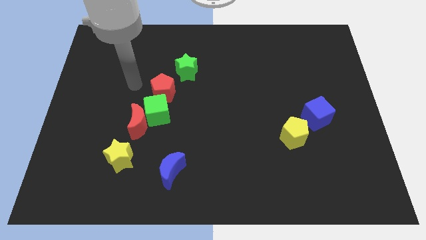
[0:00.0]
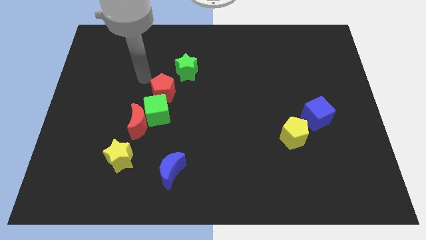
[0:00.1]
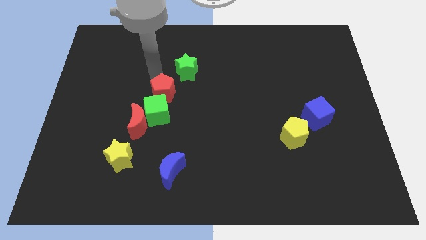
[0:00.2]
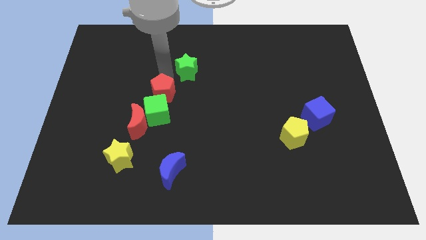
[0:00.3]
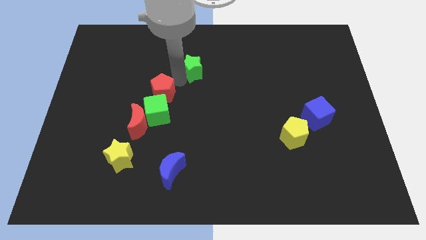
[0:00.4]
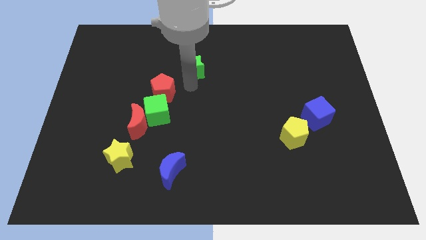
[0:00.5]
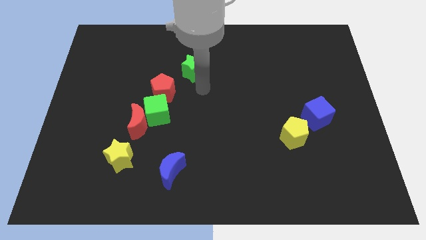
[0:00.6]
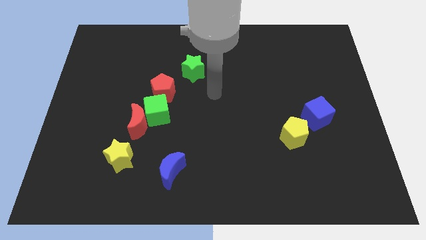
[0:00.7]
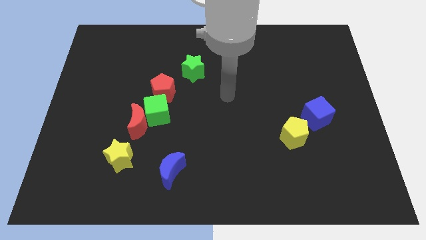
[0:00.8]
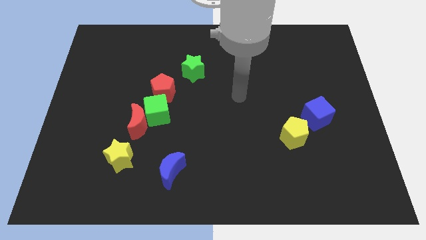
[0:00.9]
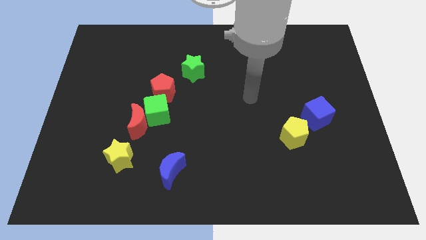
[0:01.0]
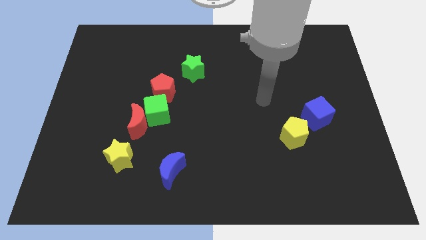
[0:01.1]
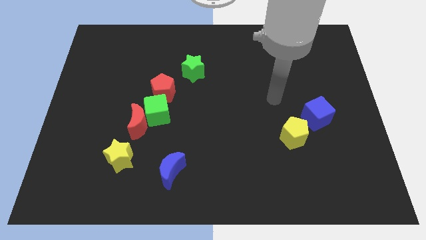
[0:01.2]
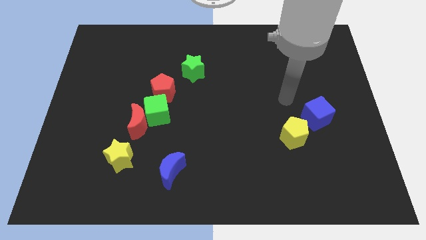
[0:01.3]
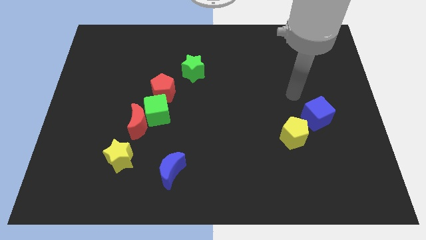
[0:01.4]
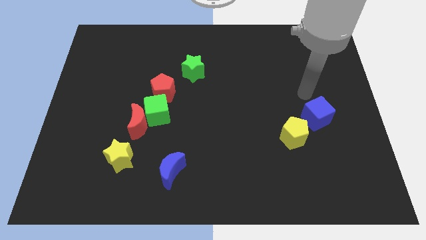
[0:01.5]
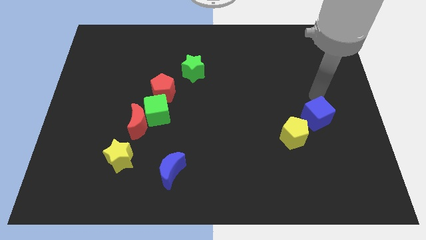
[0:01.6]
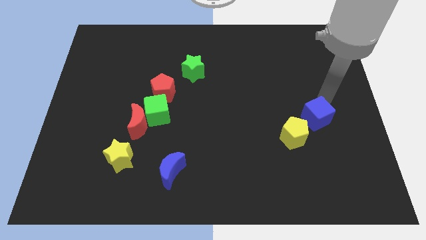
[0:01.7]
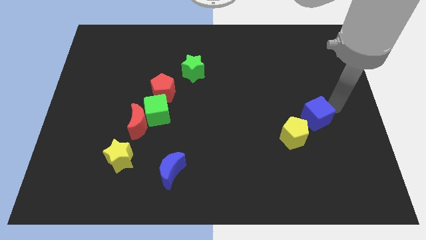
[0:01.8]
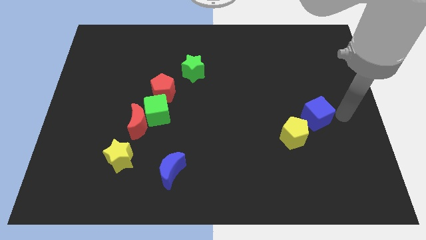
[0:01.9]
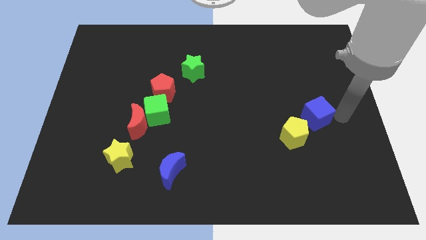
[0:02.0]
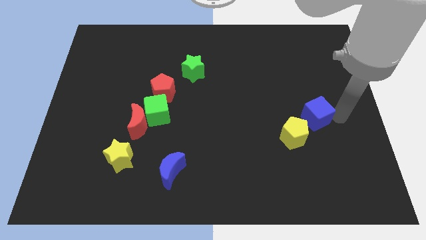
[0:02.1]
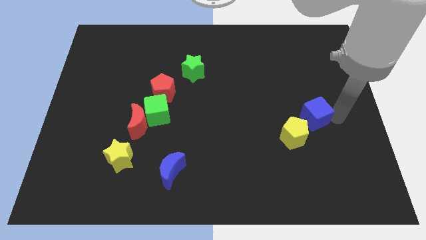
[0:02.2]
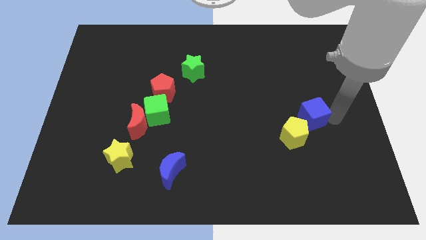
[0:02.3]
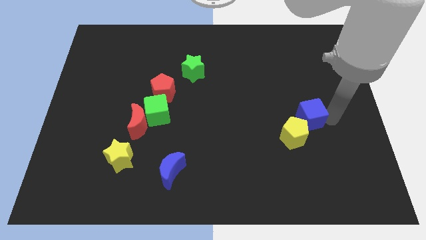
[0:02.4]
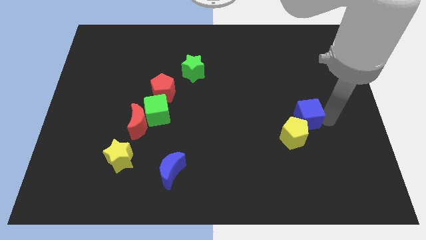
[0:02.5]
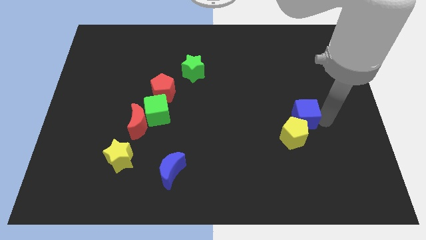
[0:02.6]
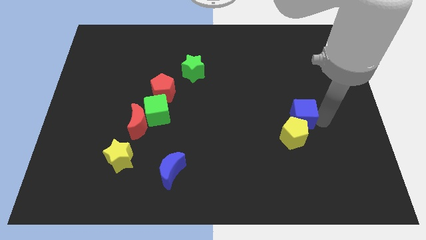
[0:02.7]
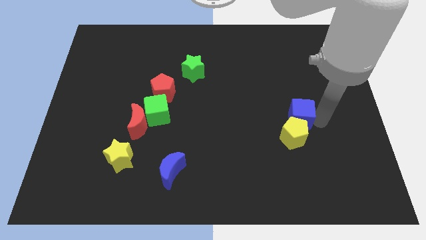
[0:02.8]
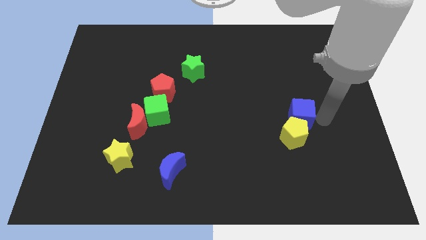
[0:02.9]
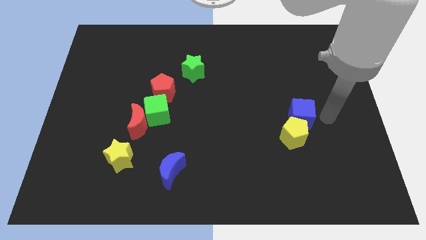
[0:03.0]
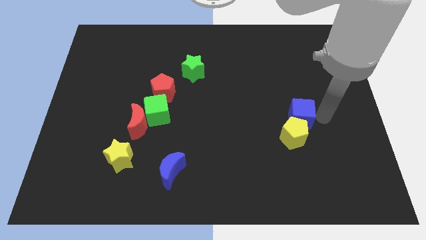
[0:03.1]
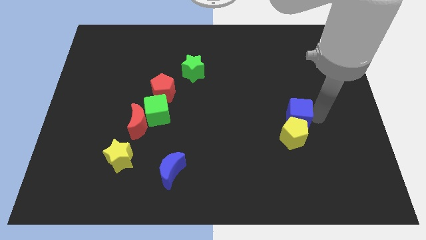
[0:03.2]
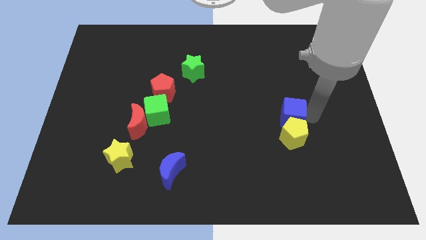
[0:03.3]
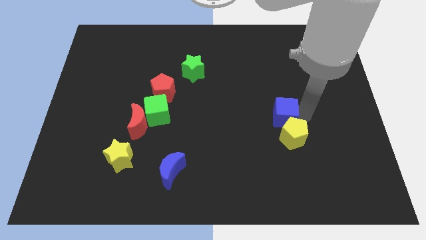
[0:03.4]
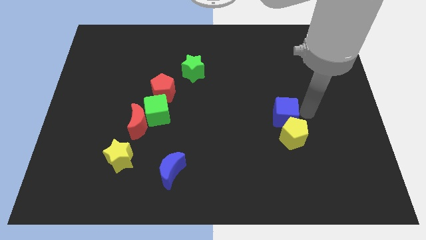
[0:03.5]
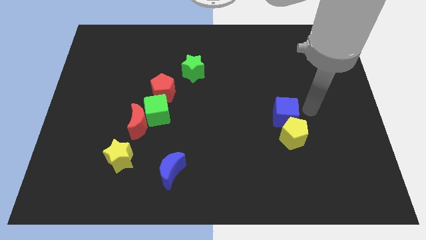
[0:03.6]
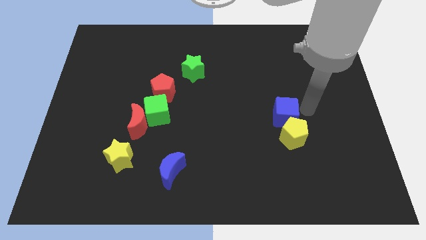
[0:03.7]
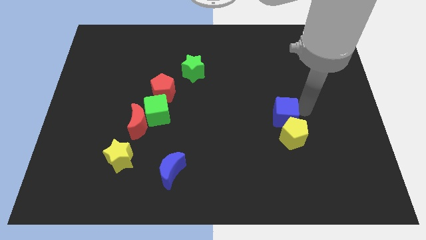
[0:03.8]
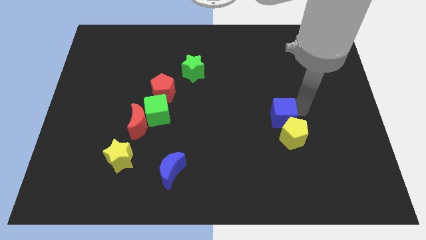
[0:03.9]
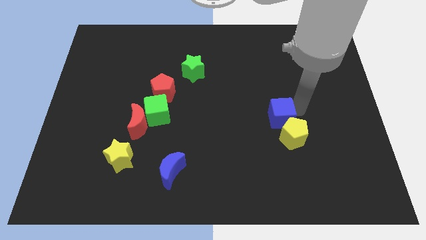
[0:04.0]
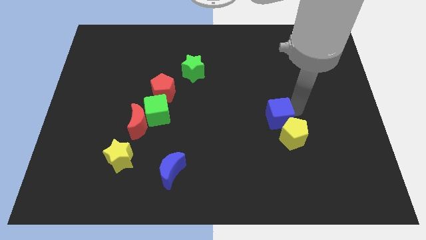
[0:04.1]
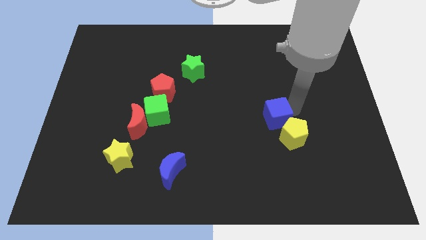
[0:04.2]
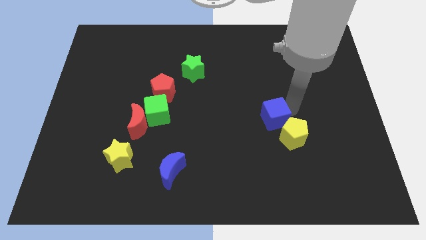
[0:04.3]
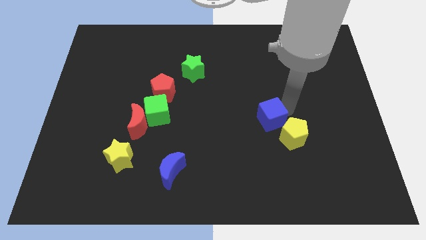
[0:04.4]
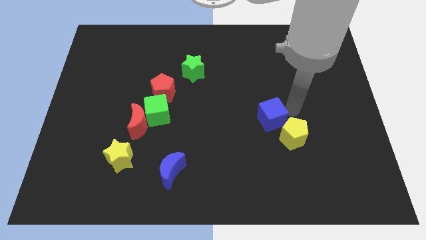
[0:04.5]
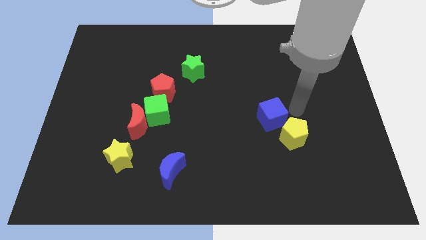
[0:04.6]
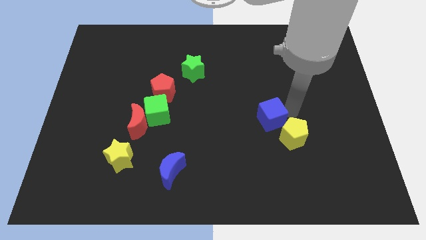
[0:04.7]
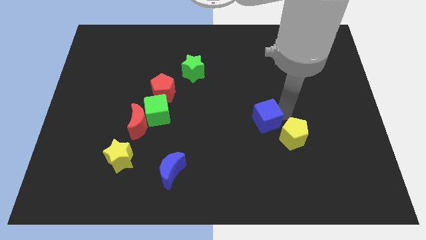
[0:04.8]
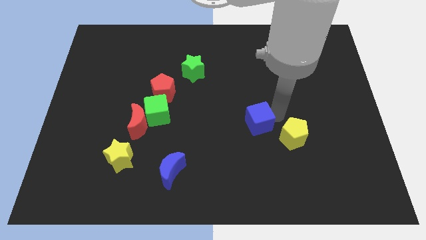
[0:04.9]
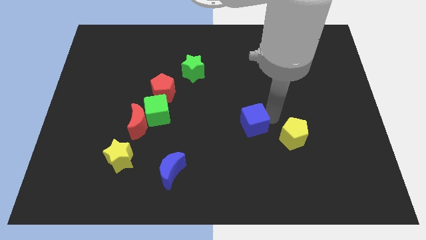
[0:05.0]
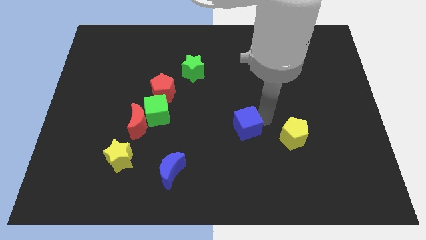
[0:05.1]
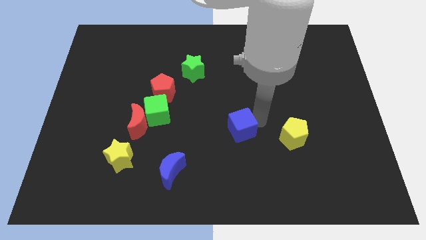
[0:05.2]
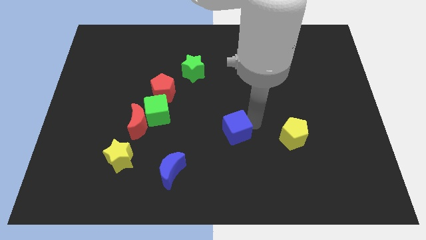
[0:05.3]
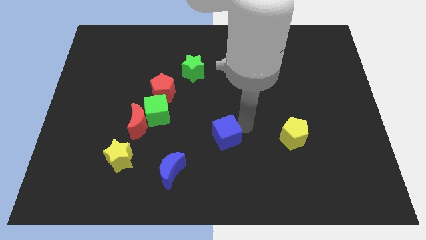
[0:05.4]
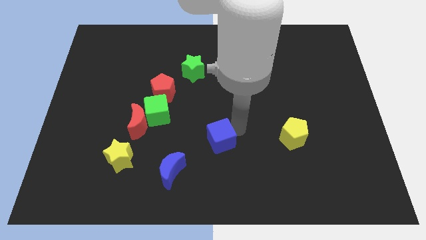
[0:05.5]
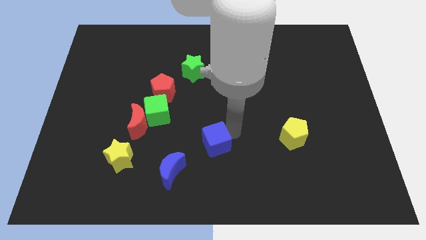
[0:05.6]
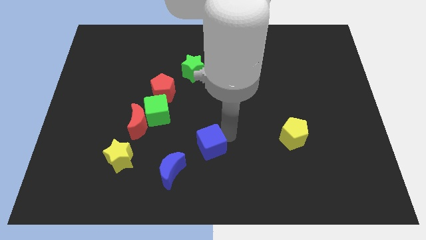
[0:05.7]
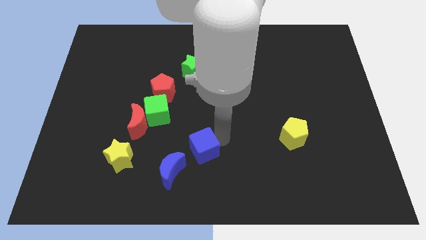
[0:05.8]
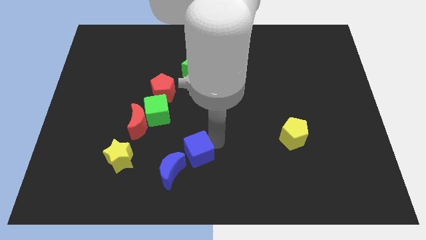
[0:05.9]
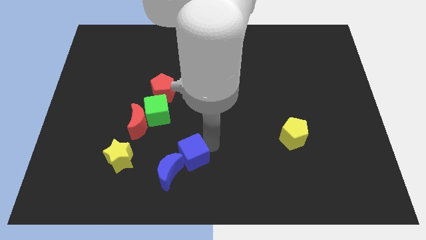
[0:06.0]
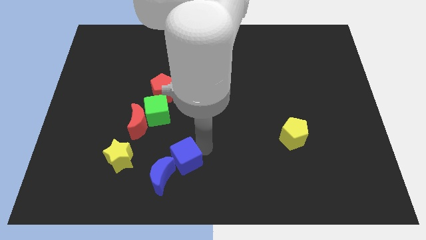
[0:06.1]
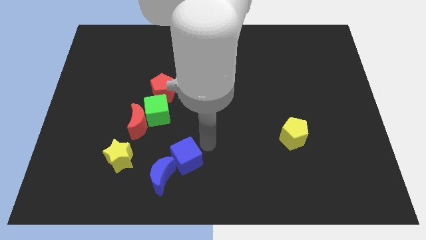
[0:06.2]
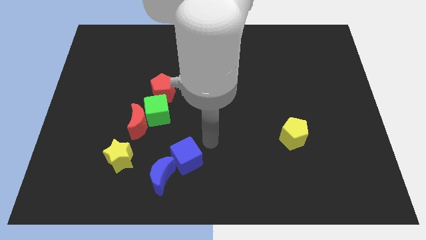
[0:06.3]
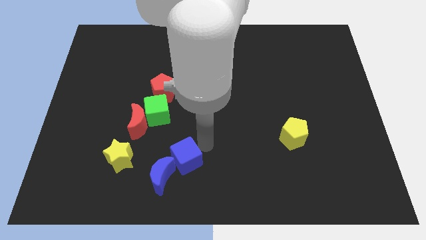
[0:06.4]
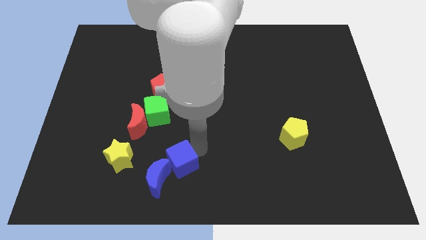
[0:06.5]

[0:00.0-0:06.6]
put the blue cube towards the blue moon
